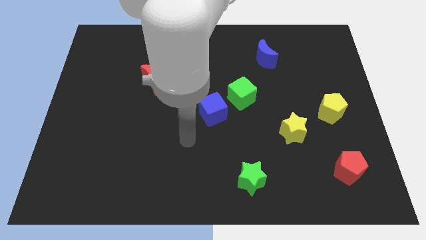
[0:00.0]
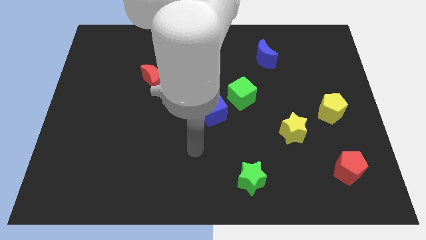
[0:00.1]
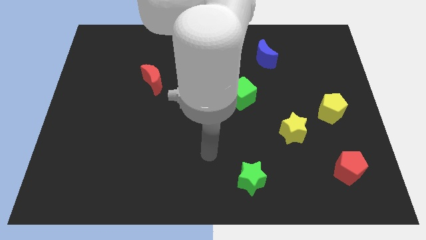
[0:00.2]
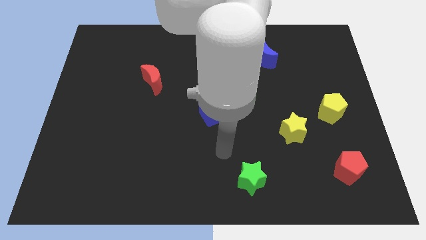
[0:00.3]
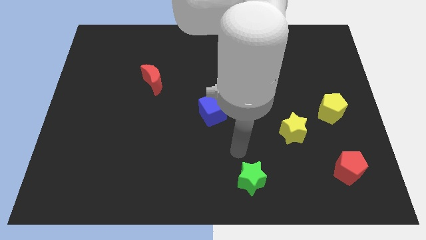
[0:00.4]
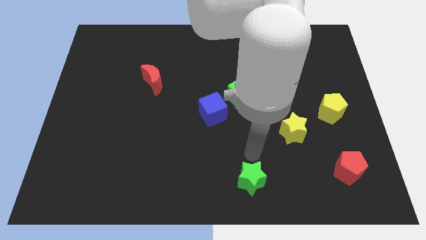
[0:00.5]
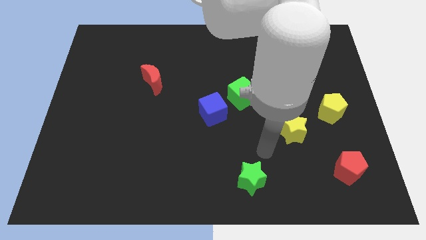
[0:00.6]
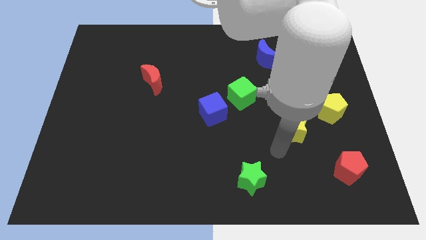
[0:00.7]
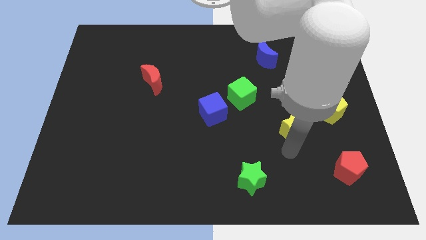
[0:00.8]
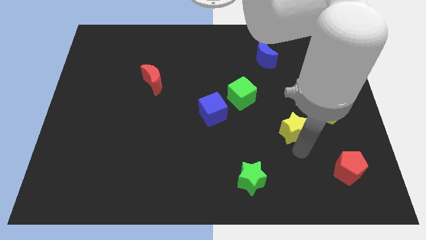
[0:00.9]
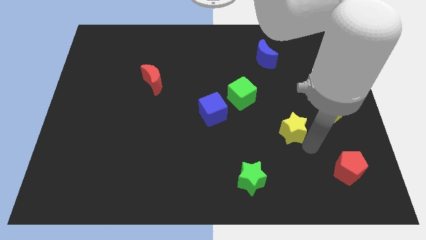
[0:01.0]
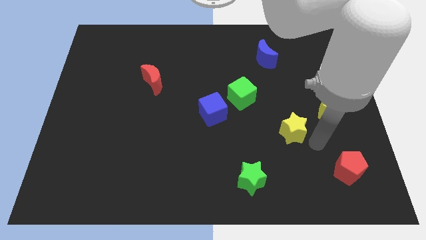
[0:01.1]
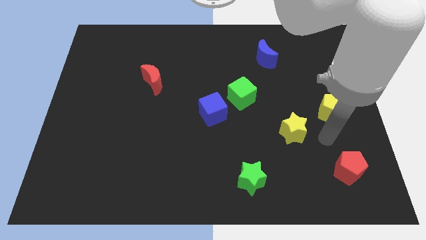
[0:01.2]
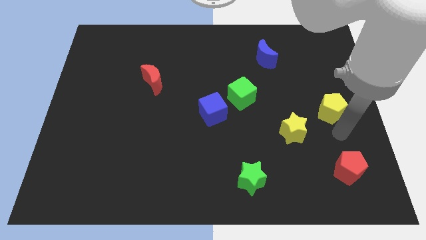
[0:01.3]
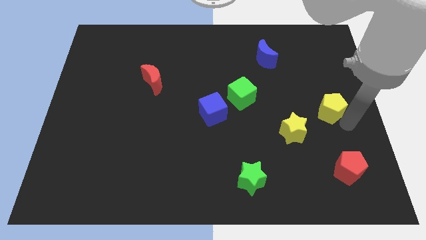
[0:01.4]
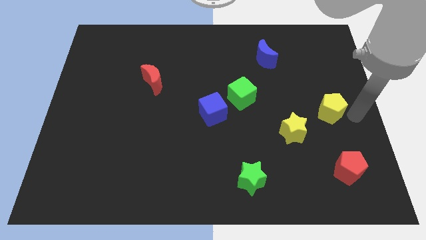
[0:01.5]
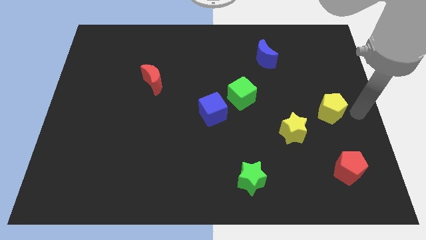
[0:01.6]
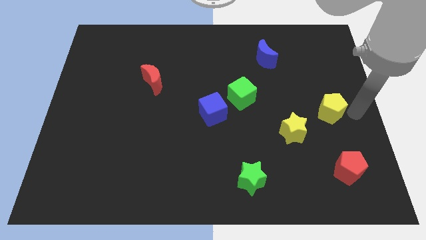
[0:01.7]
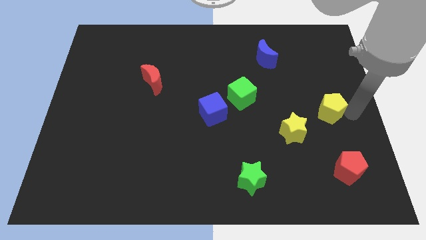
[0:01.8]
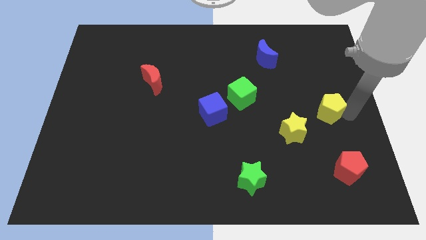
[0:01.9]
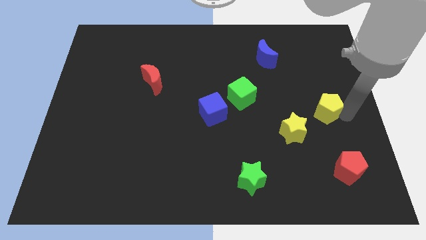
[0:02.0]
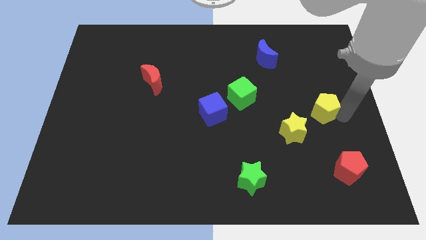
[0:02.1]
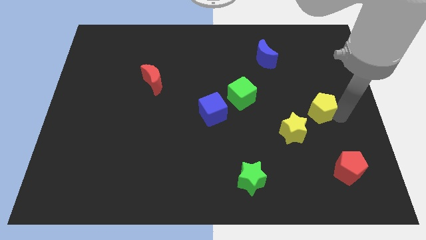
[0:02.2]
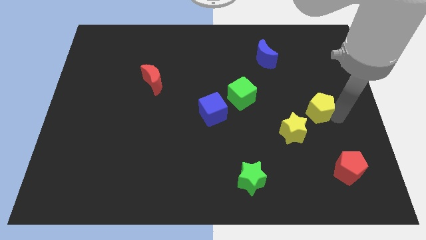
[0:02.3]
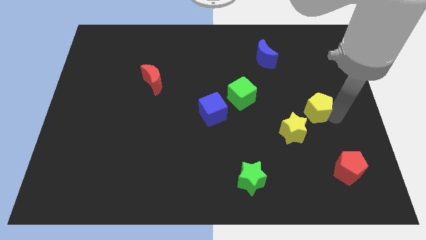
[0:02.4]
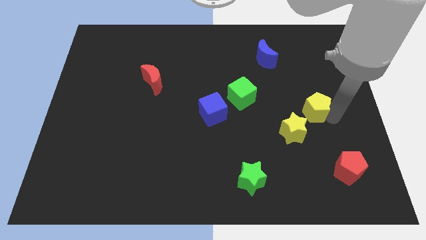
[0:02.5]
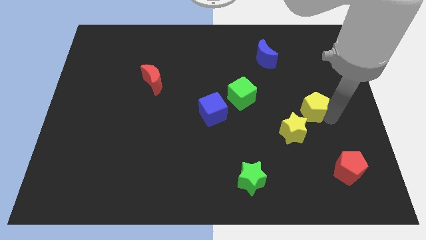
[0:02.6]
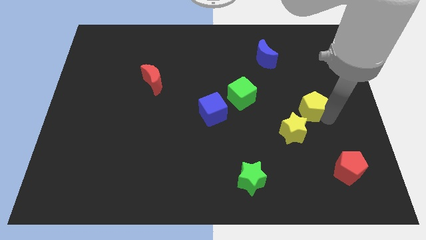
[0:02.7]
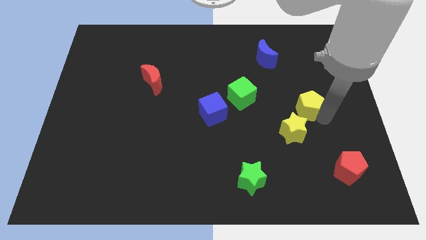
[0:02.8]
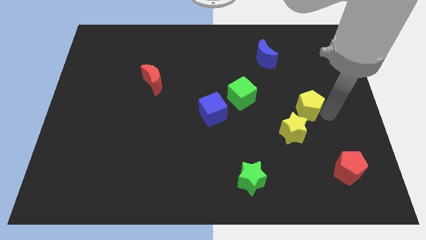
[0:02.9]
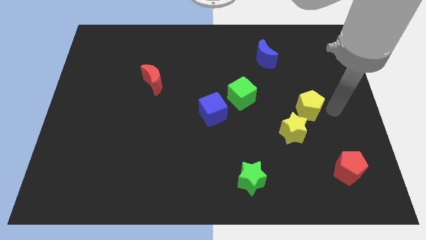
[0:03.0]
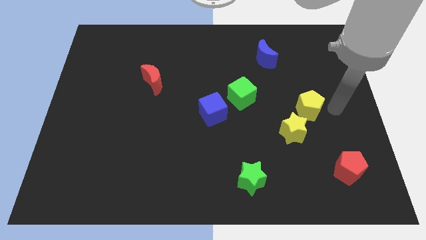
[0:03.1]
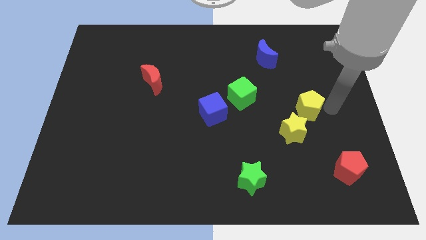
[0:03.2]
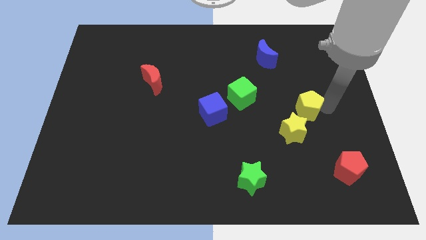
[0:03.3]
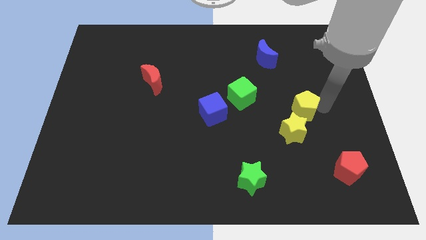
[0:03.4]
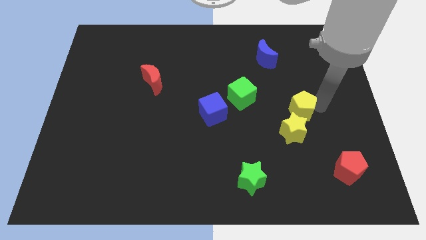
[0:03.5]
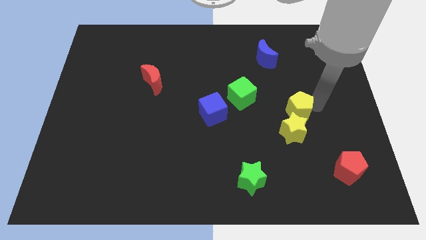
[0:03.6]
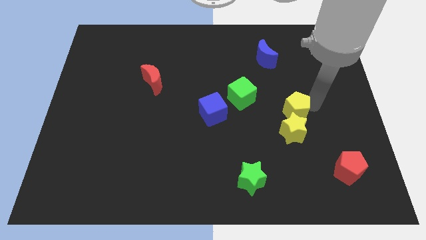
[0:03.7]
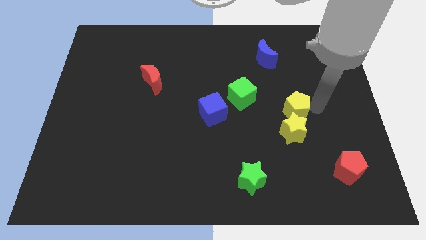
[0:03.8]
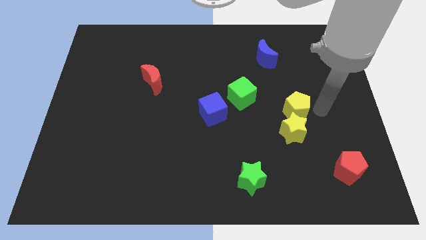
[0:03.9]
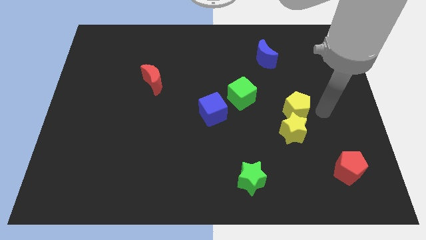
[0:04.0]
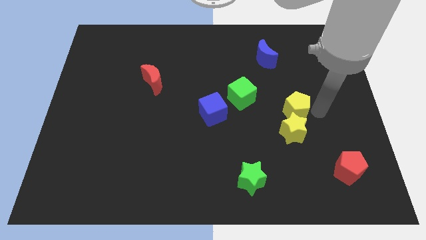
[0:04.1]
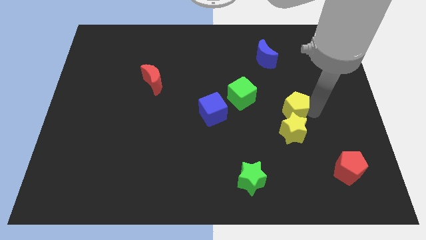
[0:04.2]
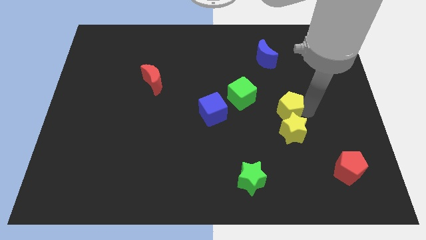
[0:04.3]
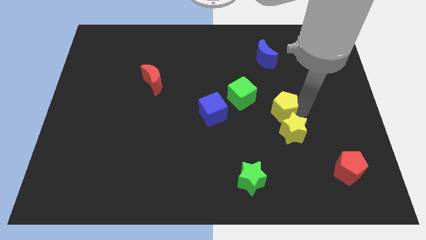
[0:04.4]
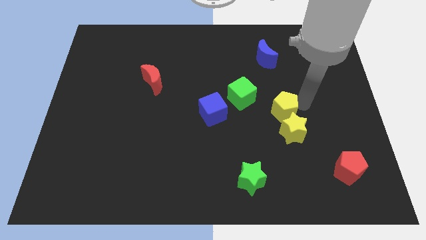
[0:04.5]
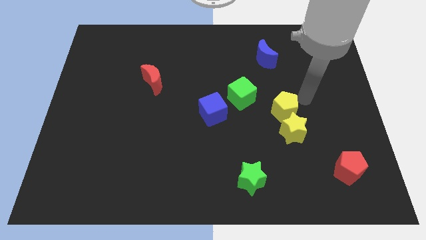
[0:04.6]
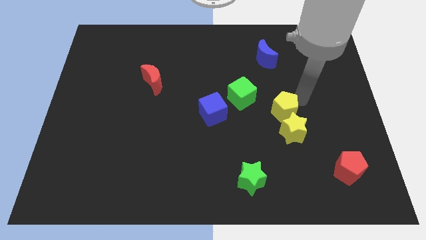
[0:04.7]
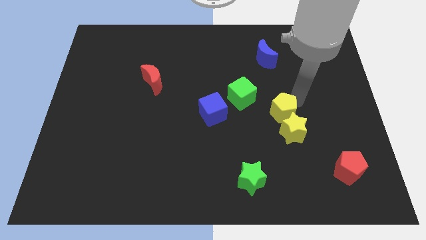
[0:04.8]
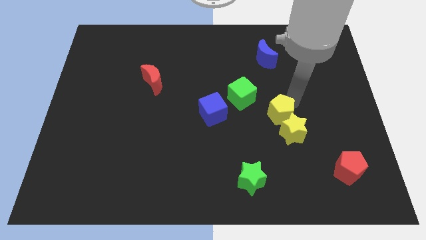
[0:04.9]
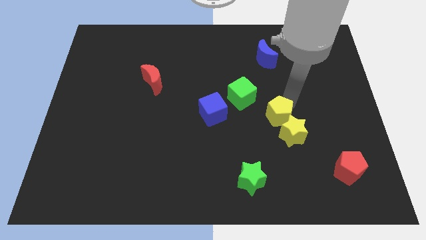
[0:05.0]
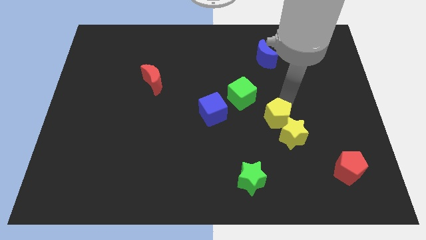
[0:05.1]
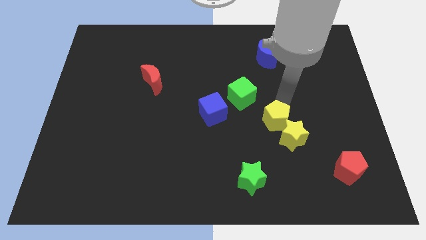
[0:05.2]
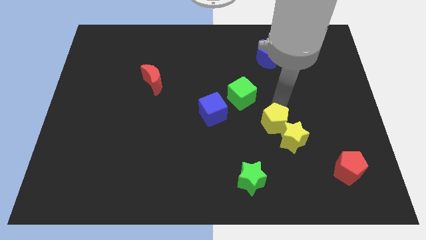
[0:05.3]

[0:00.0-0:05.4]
put the yellow pentagon left of the yellow star

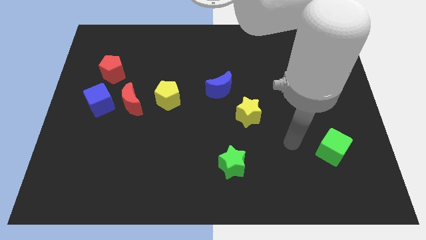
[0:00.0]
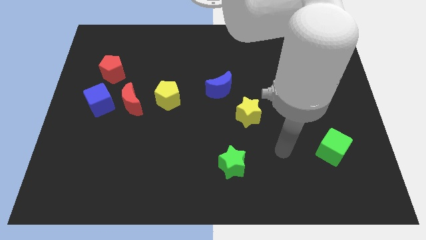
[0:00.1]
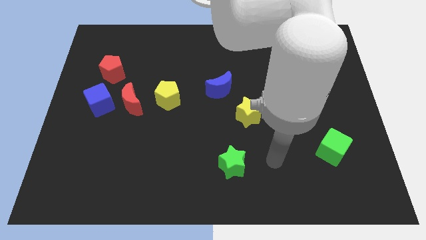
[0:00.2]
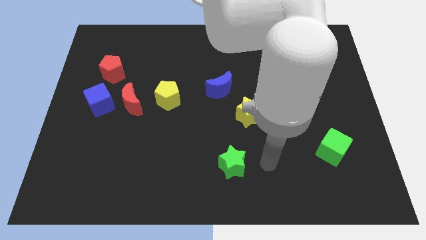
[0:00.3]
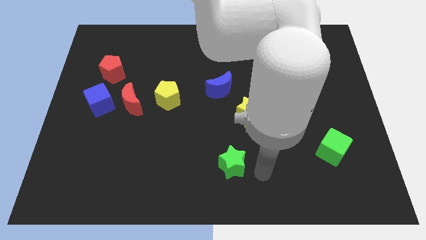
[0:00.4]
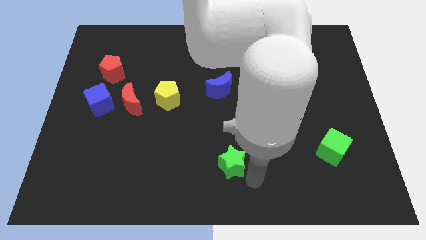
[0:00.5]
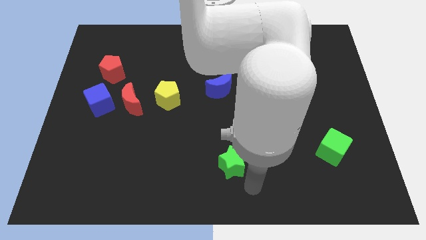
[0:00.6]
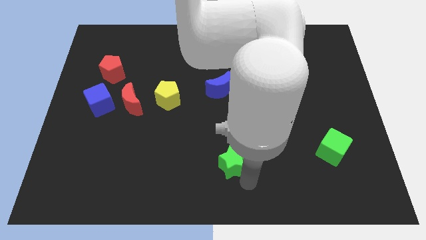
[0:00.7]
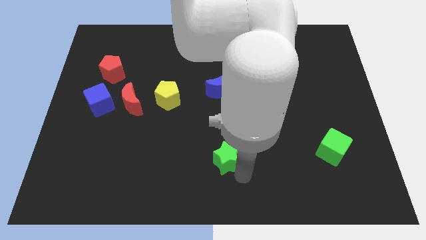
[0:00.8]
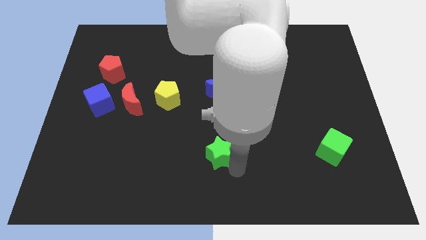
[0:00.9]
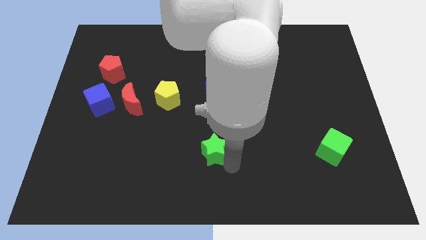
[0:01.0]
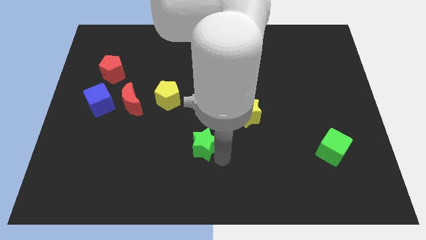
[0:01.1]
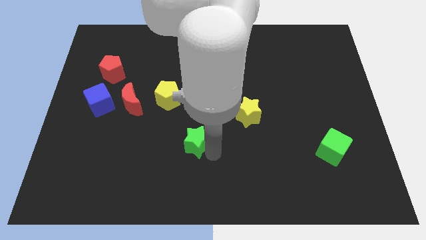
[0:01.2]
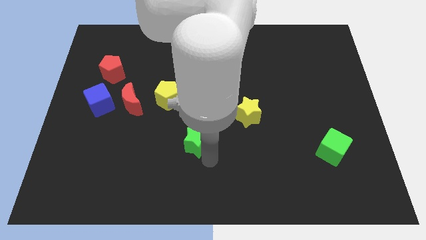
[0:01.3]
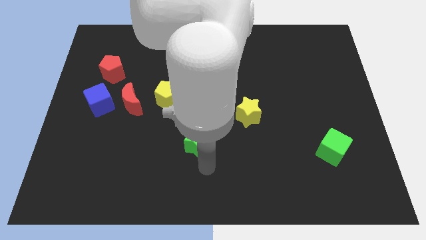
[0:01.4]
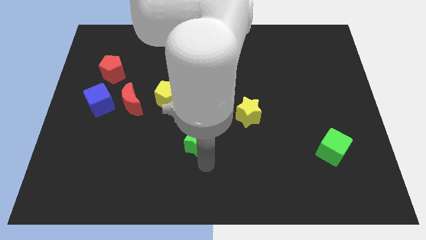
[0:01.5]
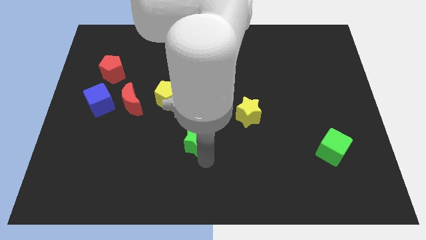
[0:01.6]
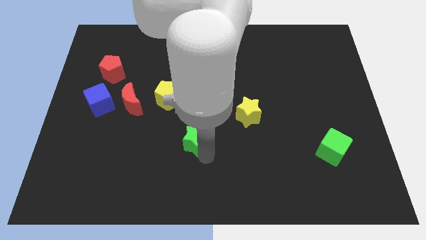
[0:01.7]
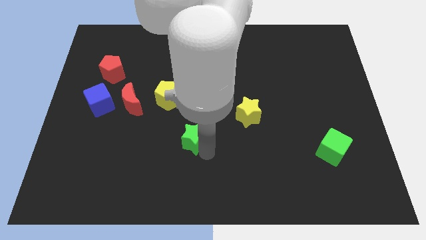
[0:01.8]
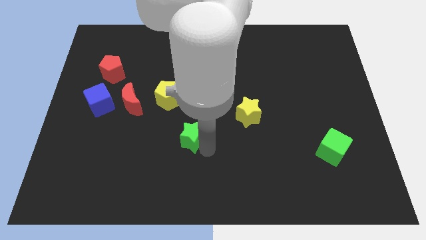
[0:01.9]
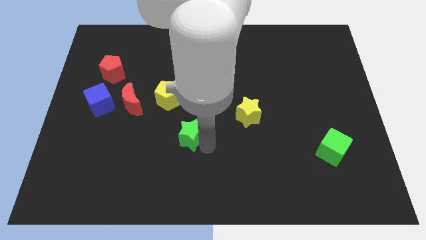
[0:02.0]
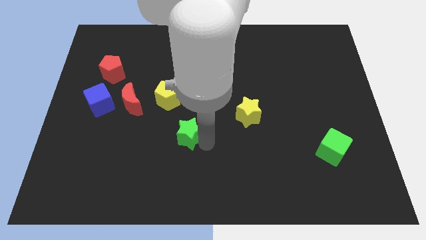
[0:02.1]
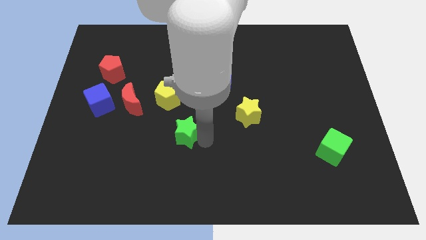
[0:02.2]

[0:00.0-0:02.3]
put the green star diagonally down and to the right of the yellow pentagon
